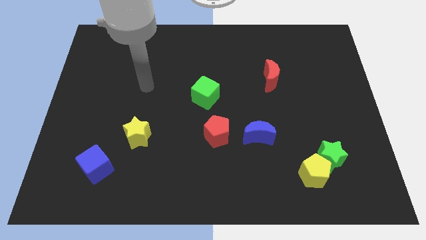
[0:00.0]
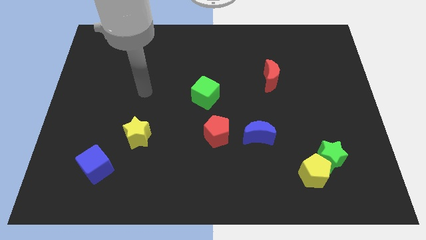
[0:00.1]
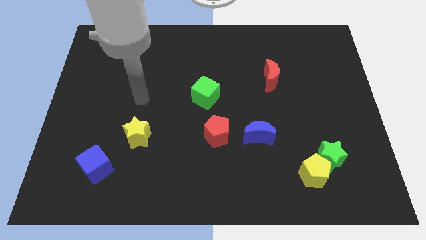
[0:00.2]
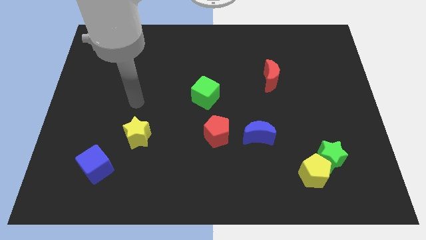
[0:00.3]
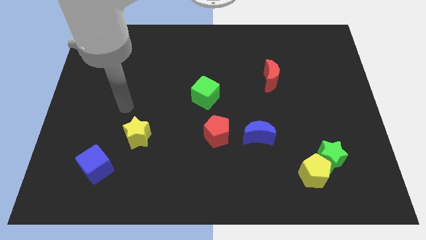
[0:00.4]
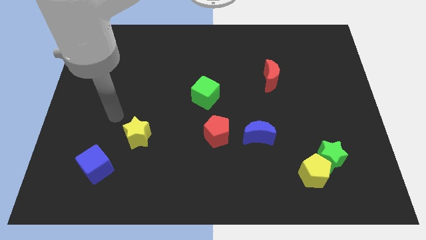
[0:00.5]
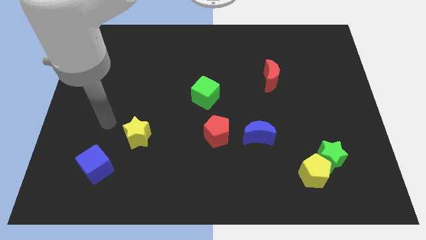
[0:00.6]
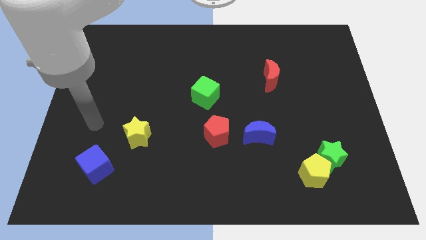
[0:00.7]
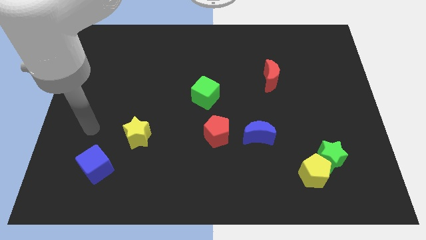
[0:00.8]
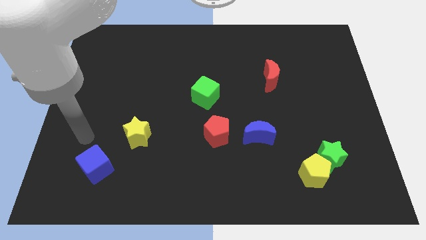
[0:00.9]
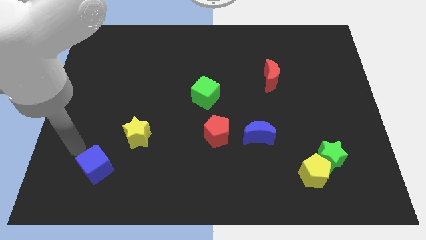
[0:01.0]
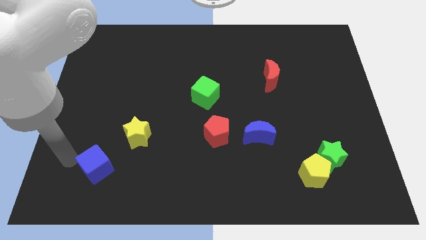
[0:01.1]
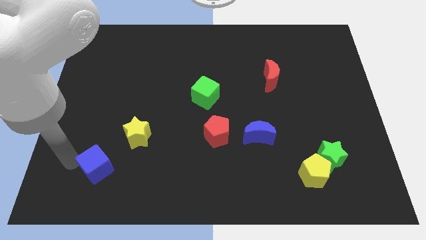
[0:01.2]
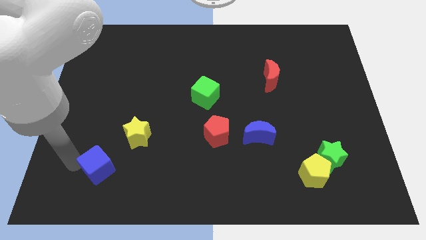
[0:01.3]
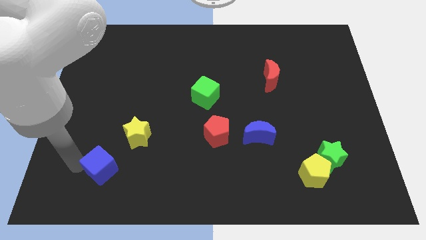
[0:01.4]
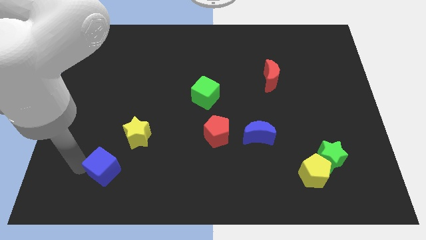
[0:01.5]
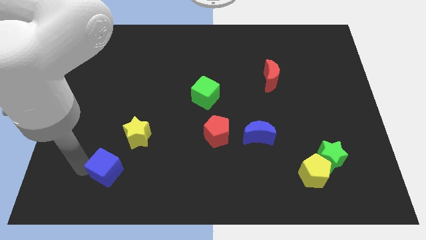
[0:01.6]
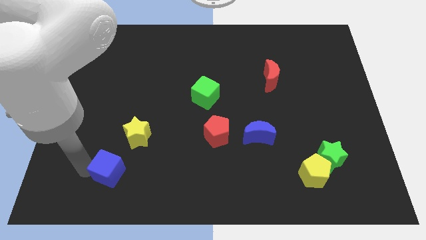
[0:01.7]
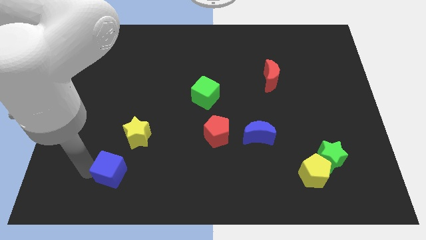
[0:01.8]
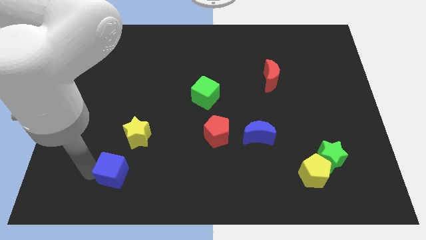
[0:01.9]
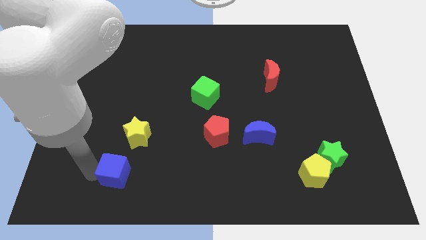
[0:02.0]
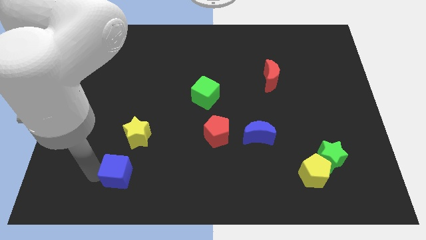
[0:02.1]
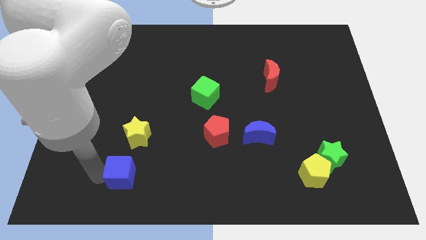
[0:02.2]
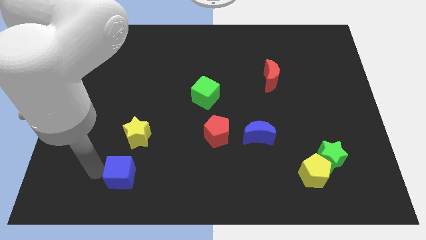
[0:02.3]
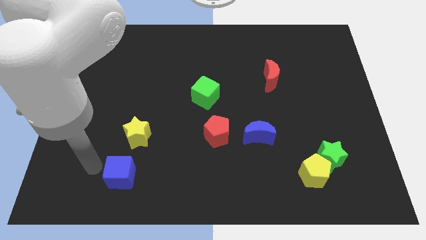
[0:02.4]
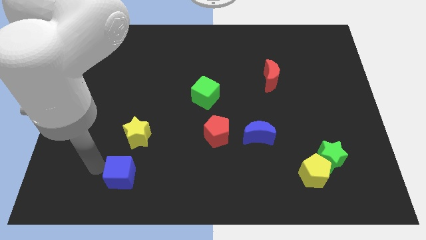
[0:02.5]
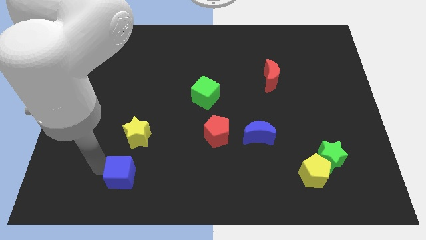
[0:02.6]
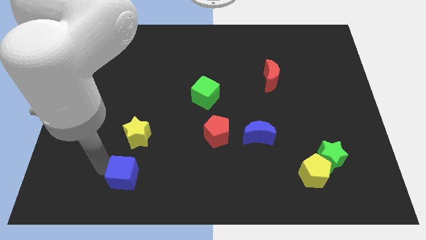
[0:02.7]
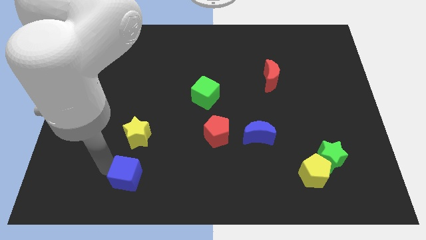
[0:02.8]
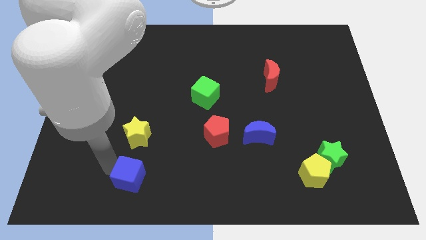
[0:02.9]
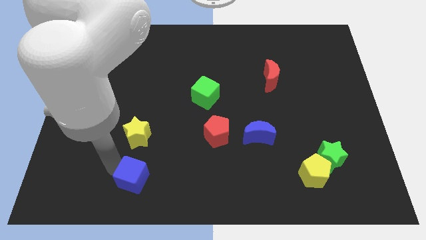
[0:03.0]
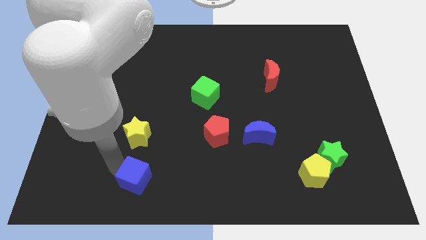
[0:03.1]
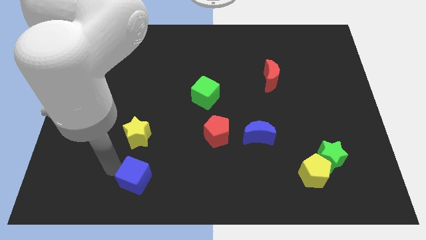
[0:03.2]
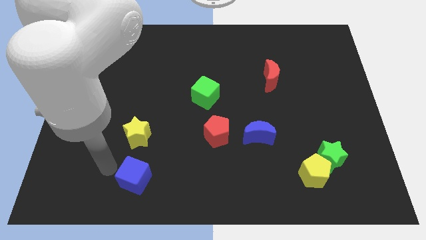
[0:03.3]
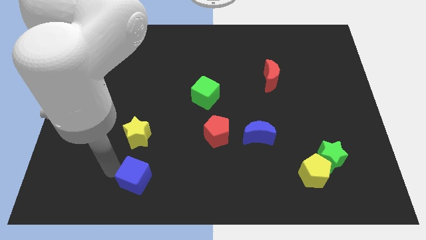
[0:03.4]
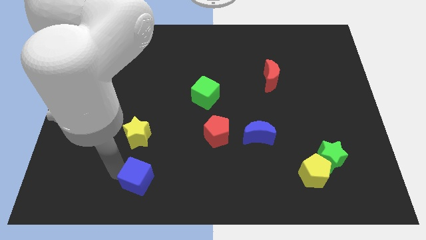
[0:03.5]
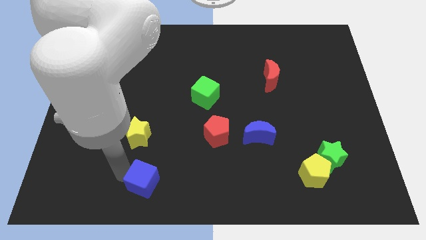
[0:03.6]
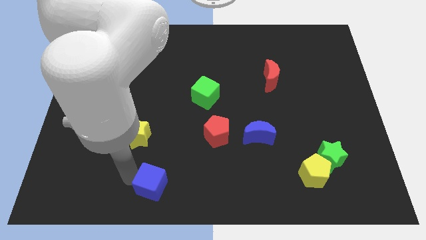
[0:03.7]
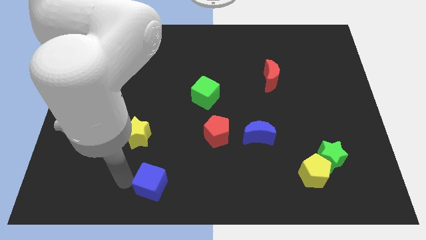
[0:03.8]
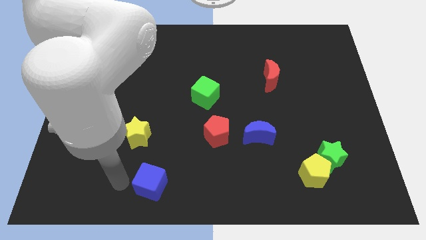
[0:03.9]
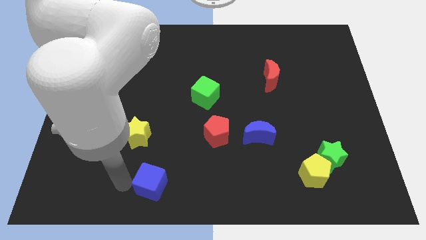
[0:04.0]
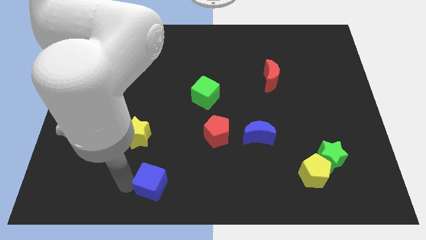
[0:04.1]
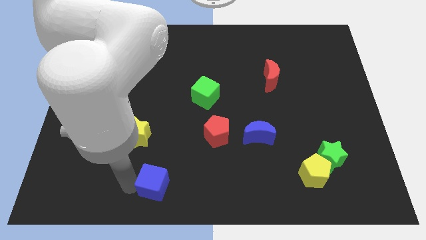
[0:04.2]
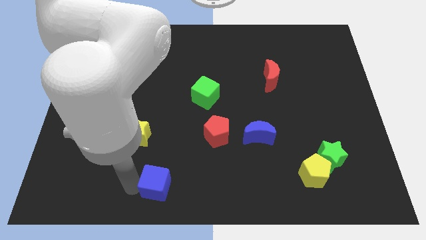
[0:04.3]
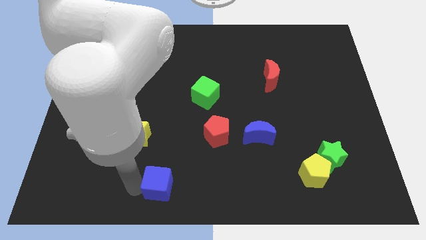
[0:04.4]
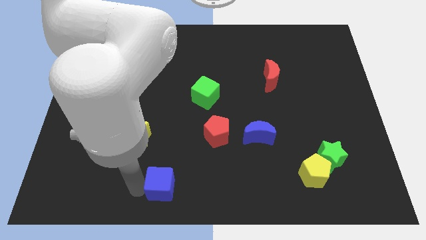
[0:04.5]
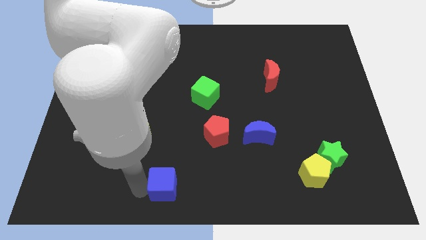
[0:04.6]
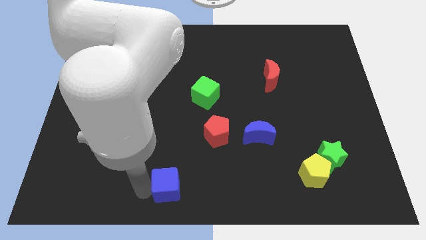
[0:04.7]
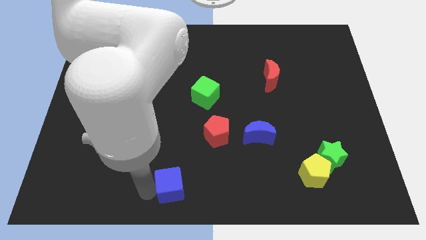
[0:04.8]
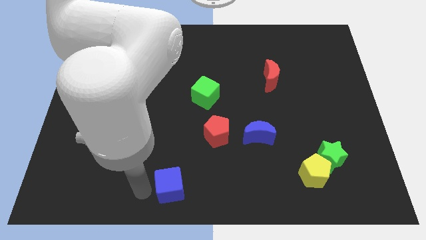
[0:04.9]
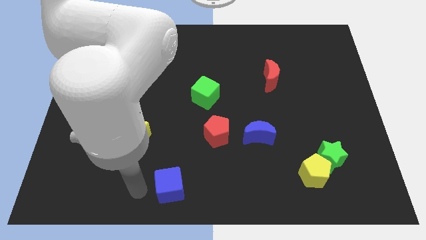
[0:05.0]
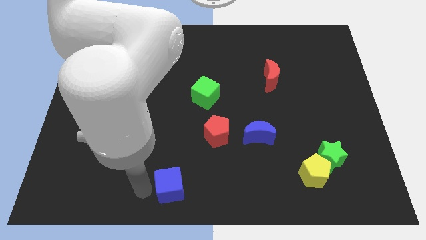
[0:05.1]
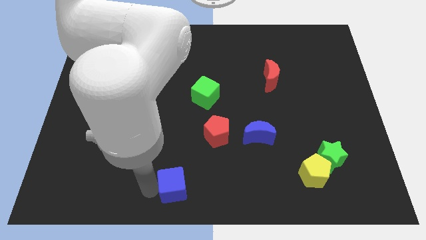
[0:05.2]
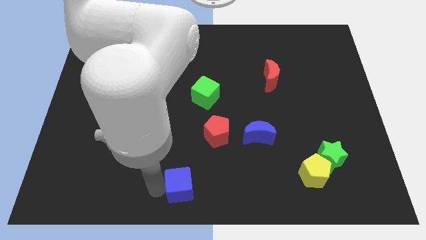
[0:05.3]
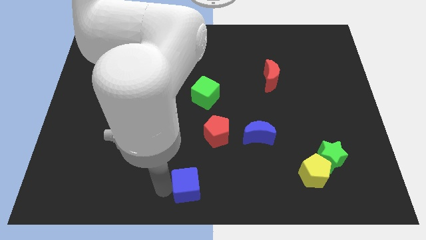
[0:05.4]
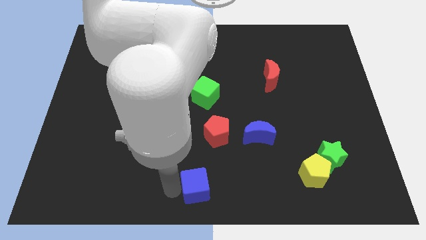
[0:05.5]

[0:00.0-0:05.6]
slide the blue cube right

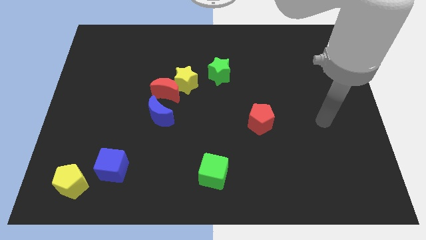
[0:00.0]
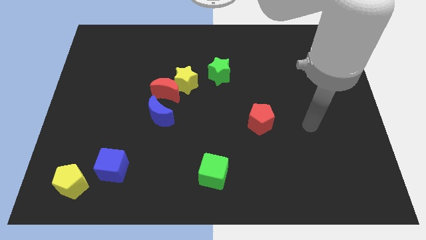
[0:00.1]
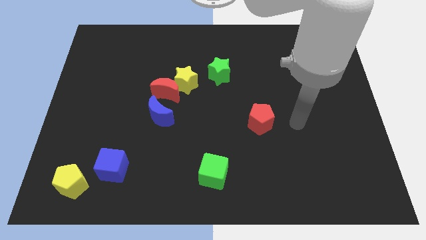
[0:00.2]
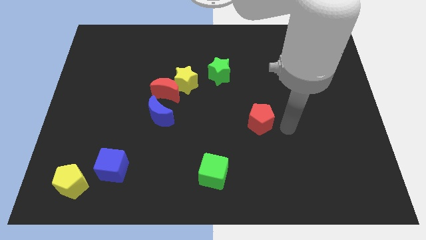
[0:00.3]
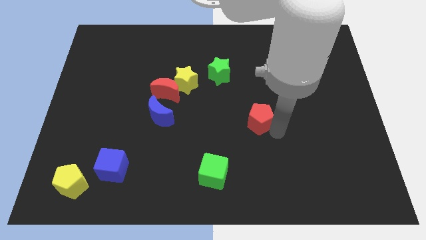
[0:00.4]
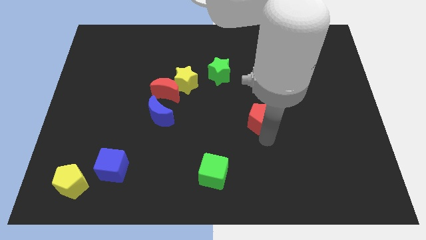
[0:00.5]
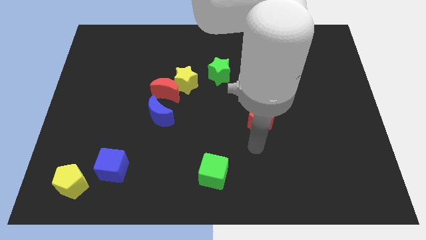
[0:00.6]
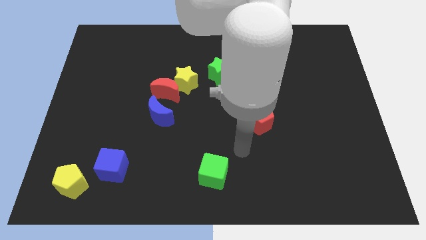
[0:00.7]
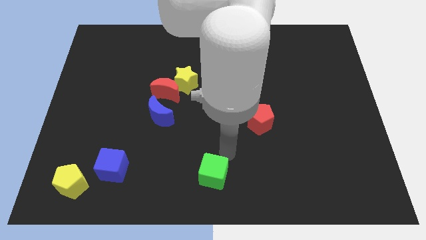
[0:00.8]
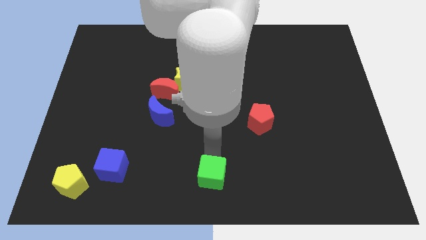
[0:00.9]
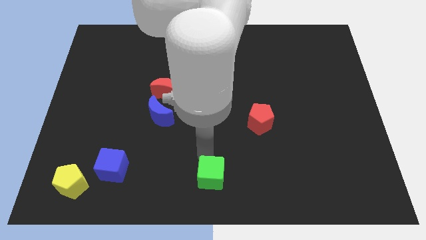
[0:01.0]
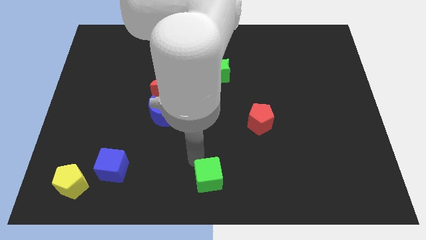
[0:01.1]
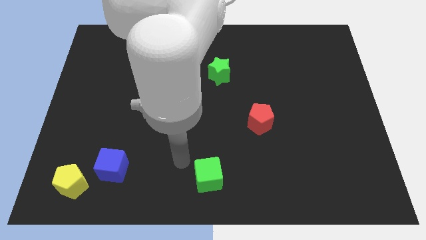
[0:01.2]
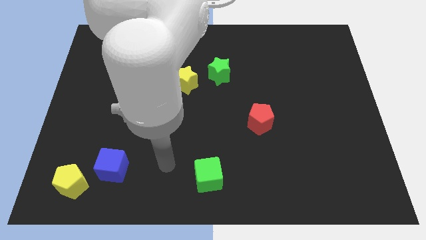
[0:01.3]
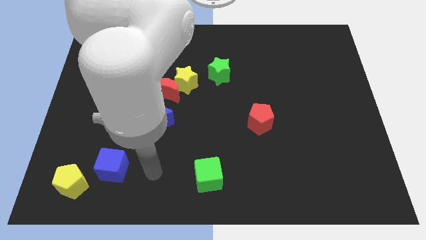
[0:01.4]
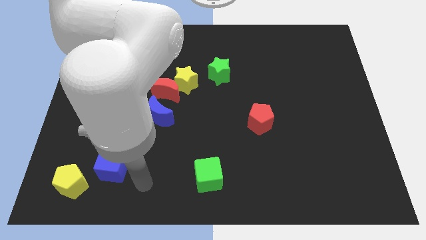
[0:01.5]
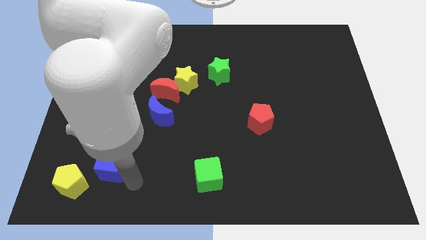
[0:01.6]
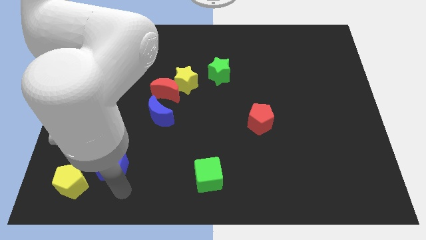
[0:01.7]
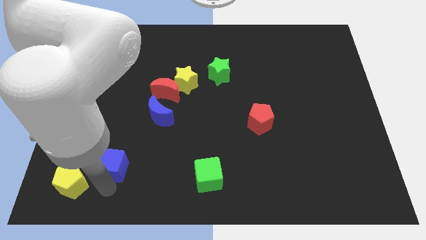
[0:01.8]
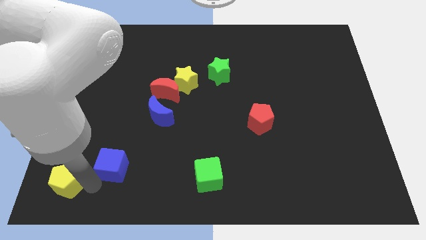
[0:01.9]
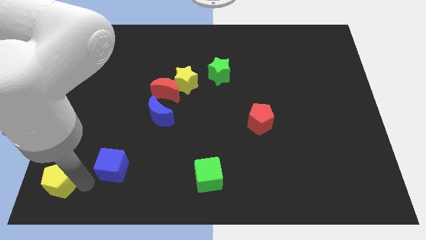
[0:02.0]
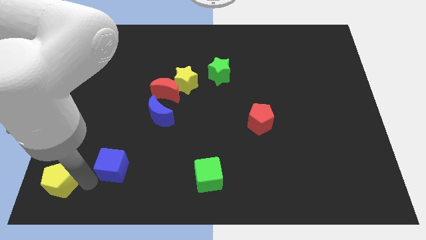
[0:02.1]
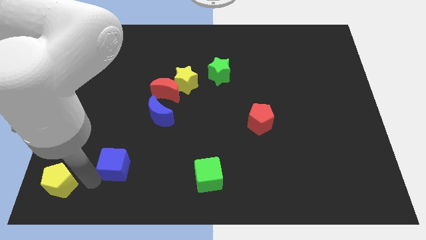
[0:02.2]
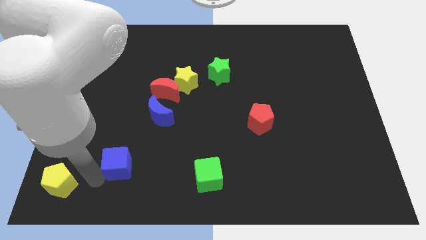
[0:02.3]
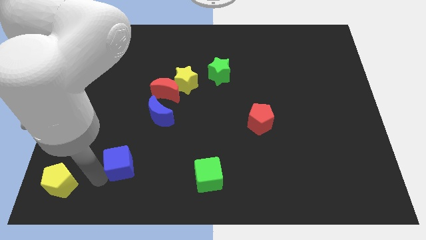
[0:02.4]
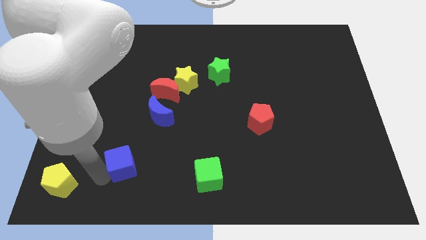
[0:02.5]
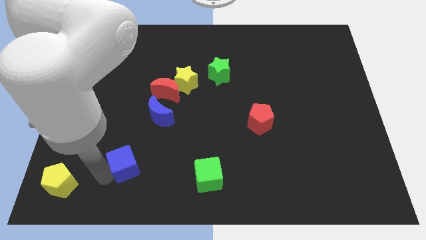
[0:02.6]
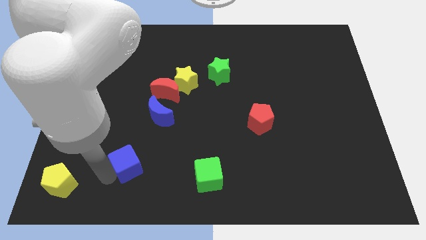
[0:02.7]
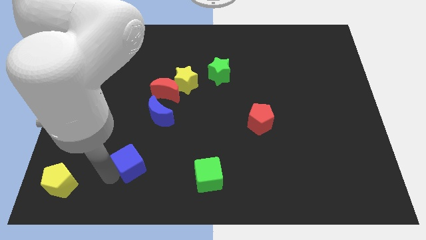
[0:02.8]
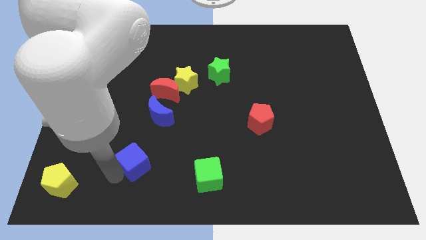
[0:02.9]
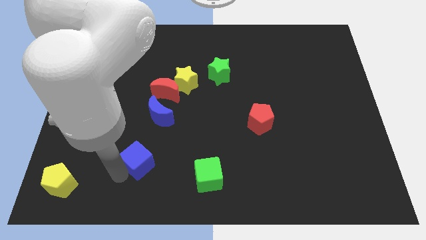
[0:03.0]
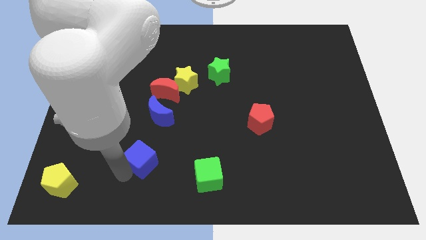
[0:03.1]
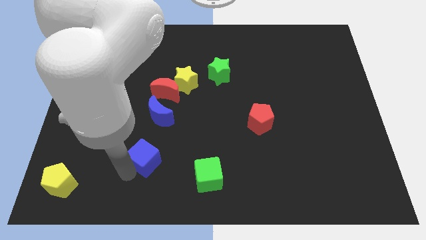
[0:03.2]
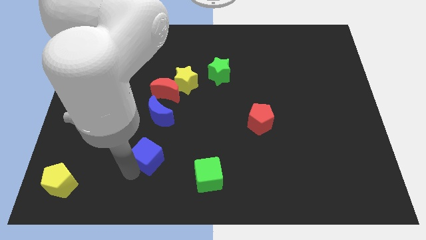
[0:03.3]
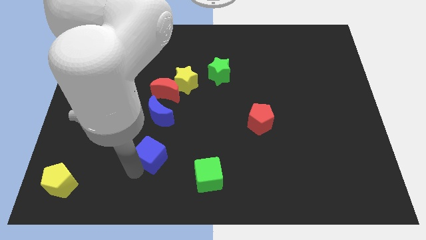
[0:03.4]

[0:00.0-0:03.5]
move the blue cube somewhat up and right
